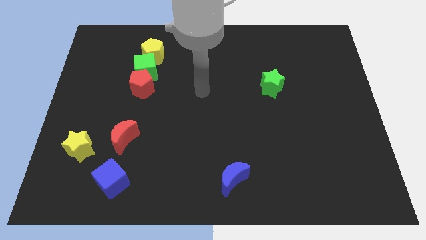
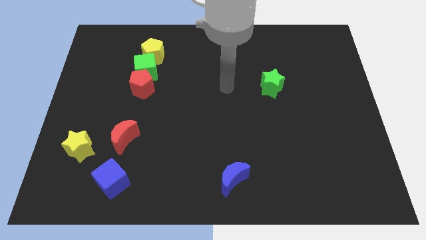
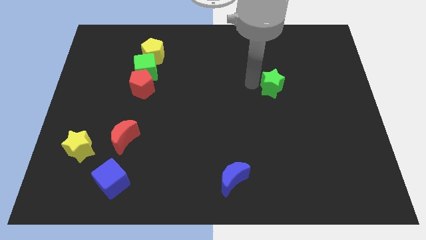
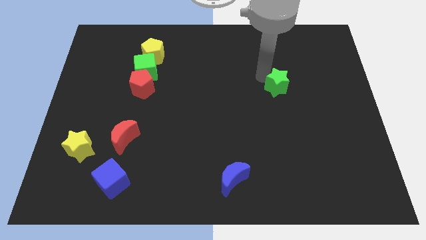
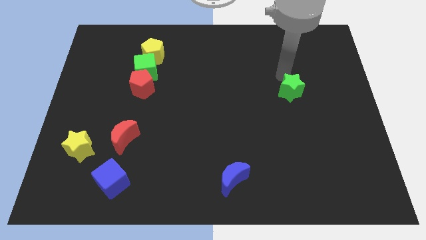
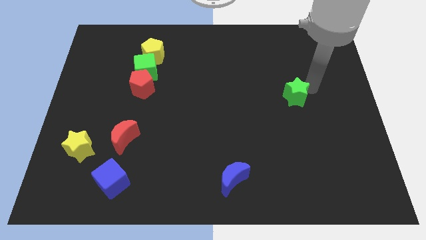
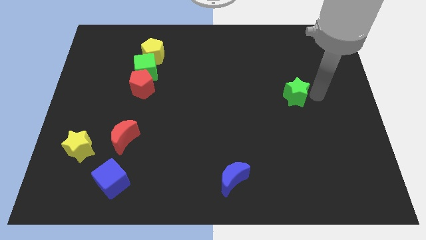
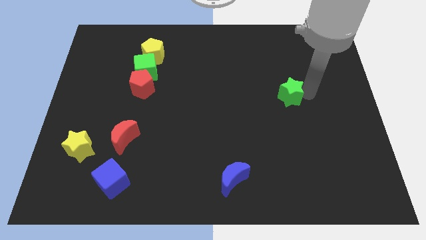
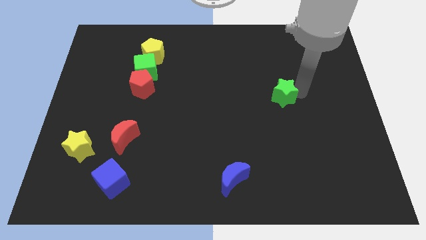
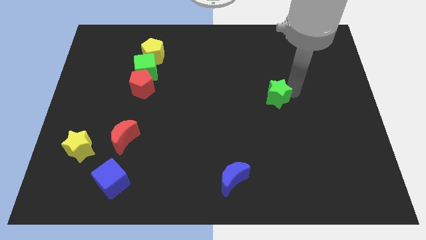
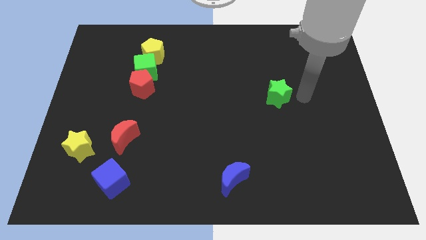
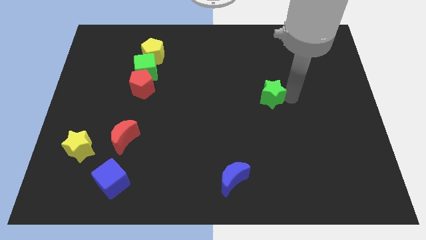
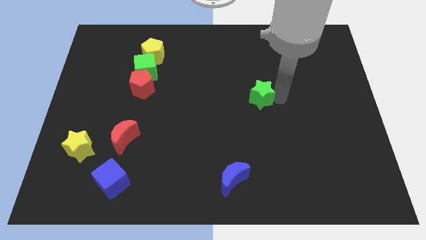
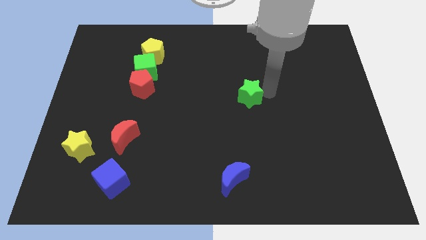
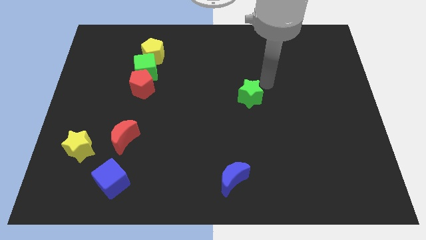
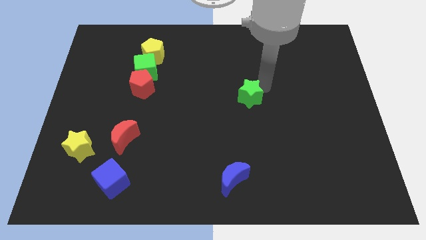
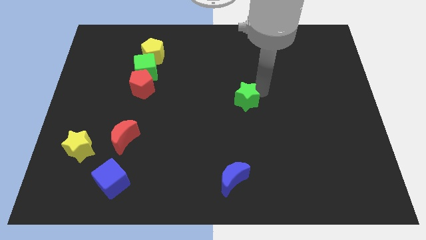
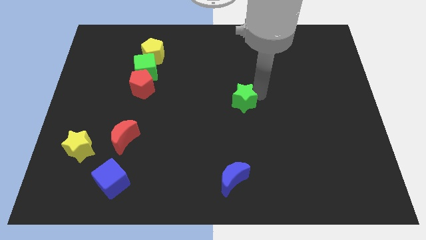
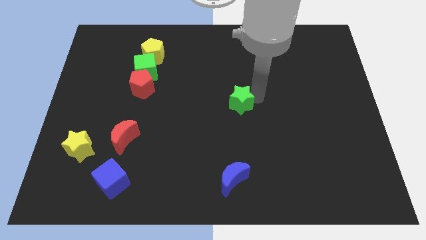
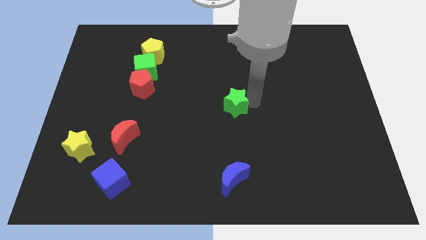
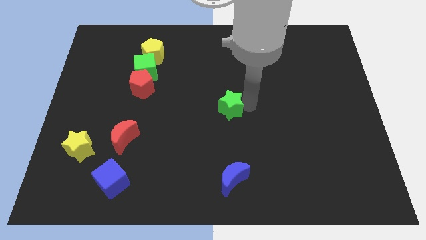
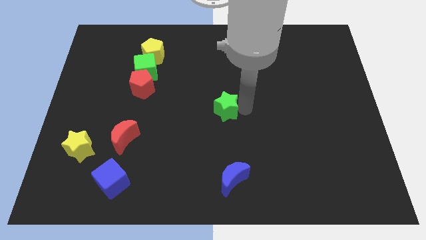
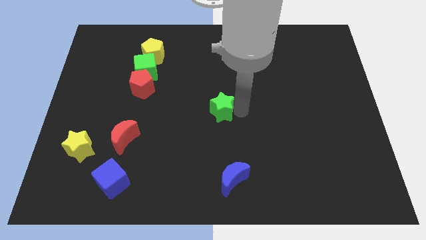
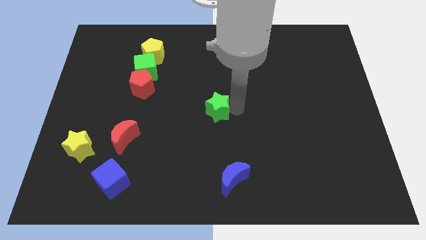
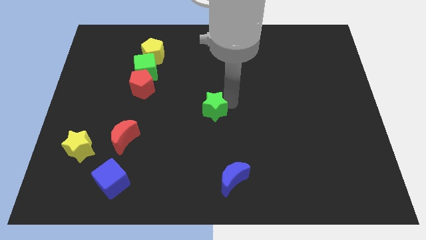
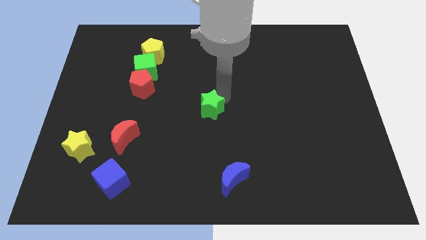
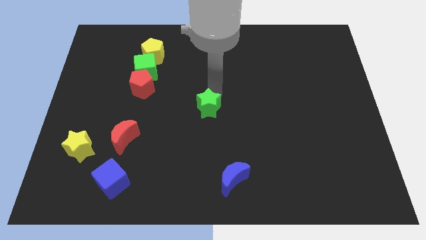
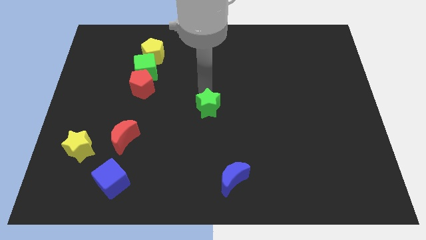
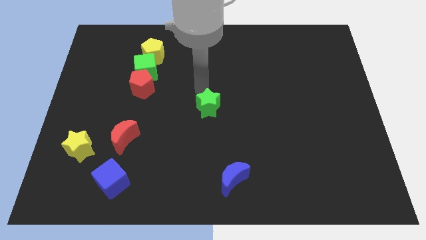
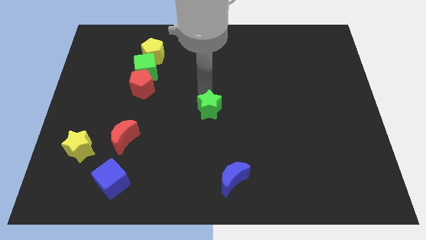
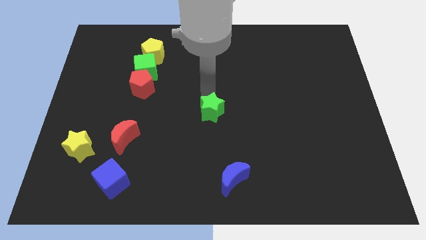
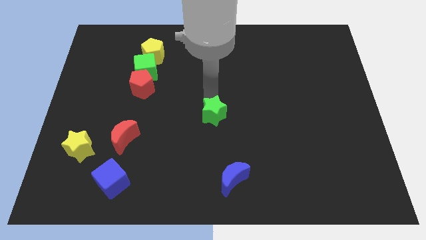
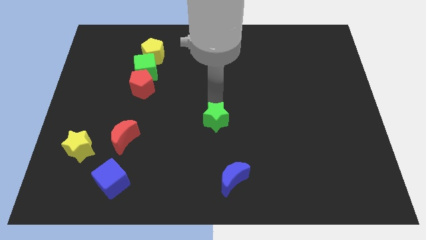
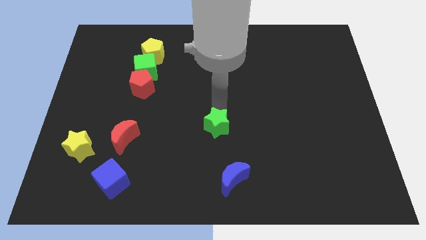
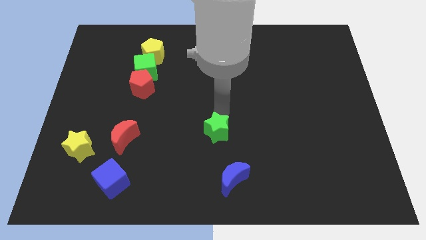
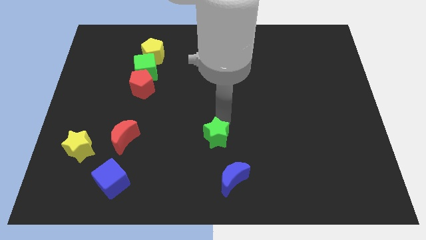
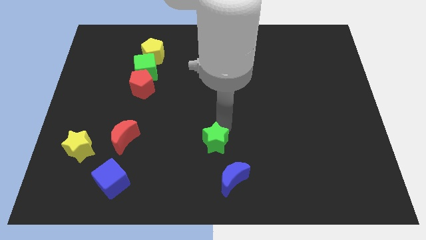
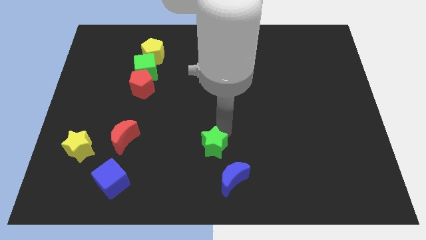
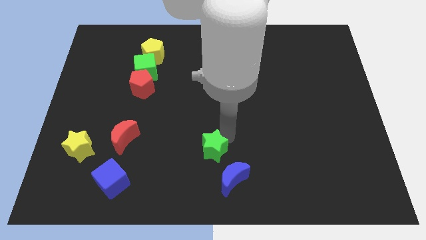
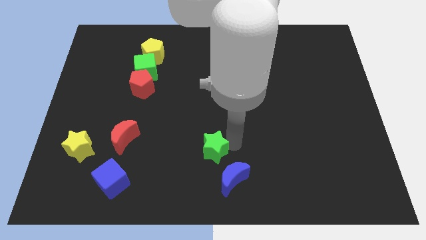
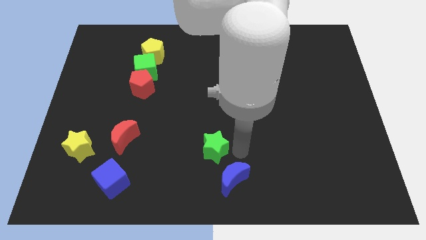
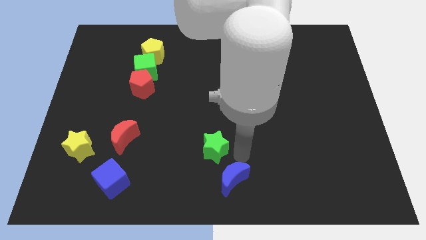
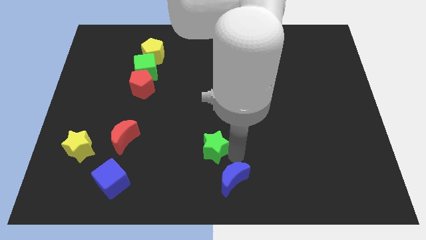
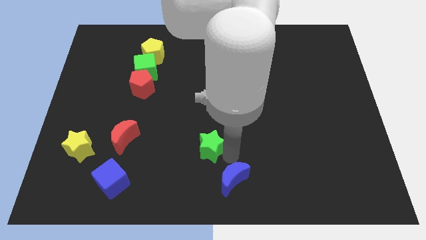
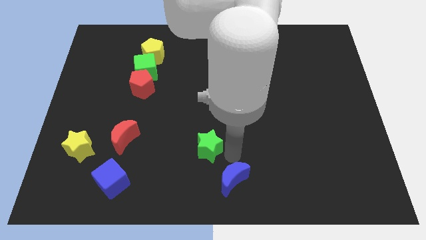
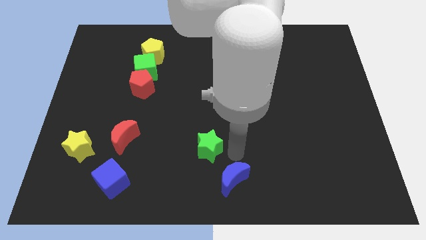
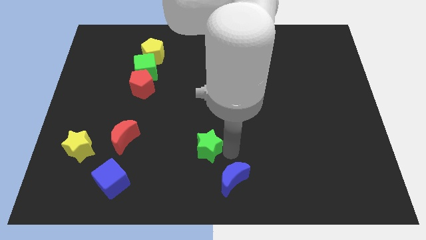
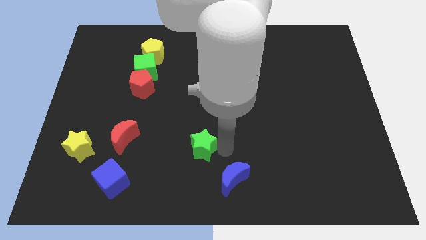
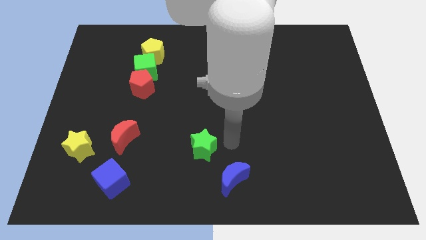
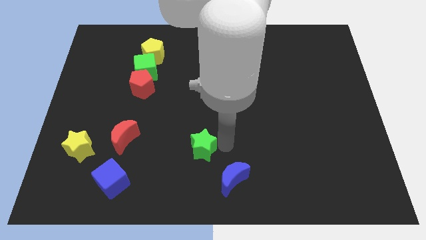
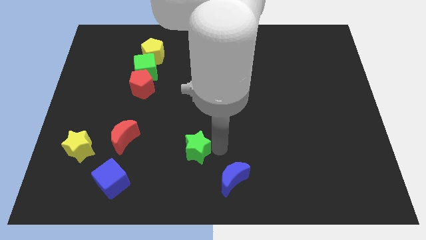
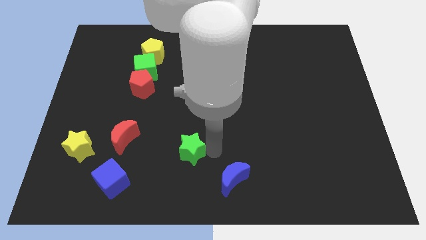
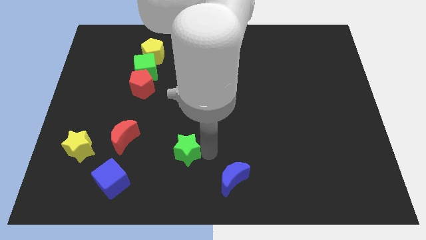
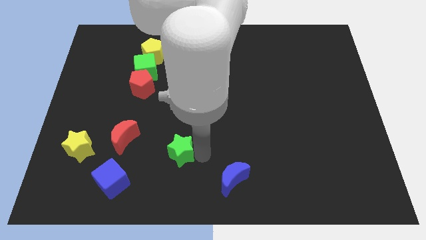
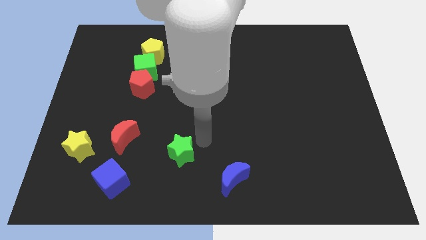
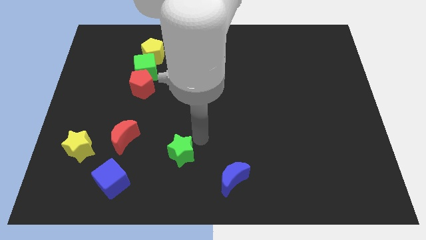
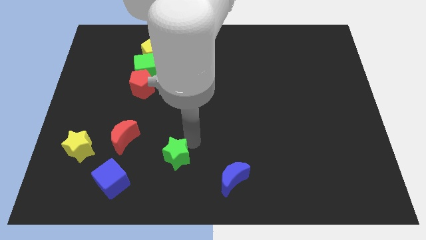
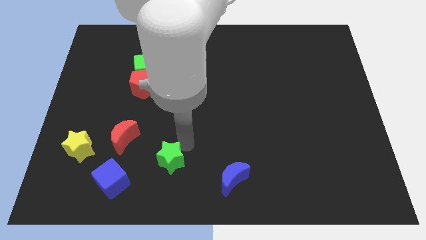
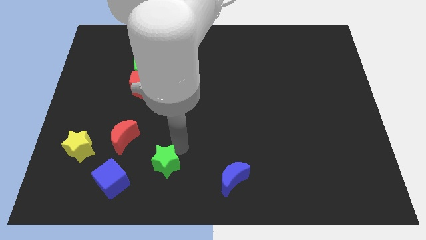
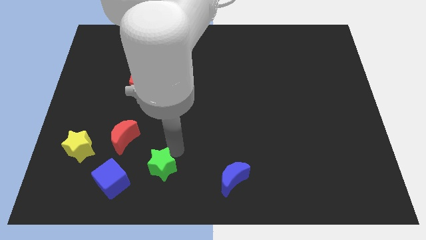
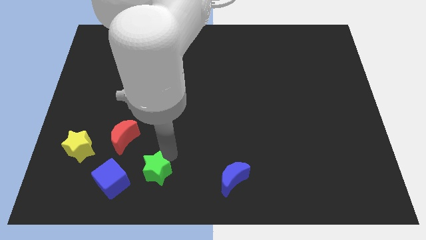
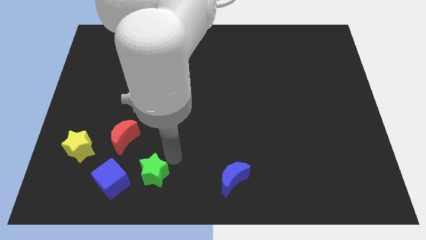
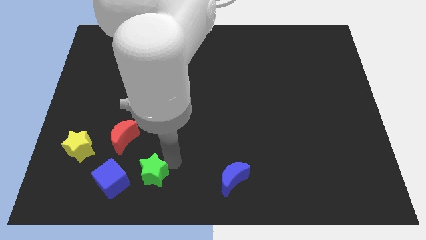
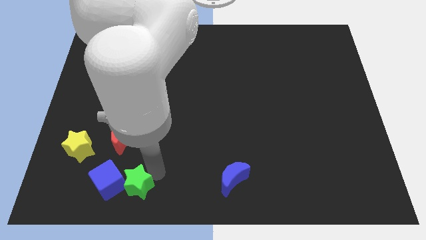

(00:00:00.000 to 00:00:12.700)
put the green star below the red moon

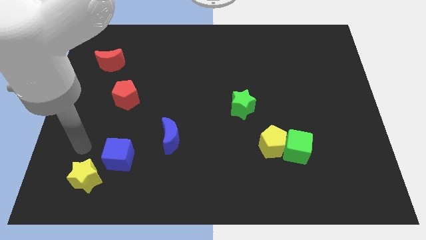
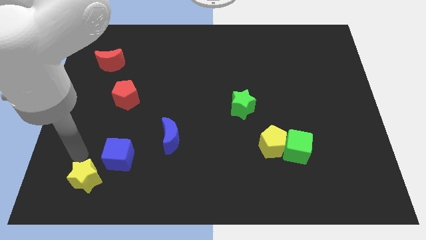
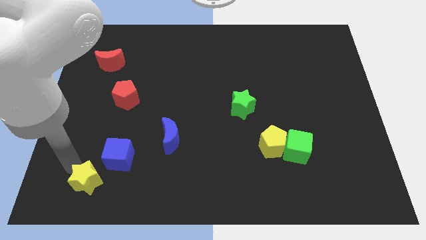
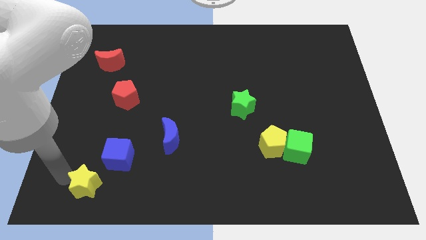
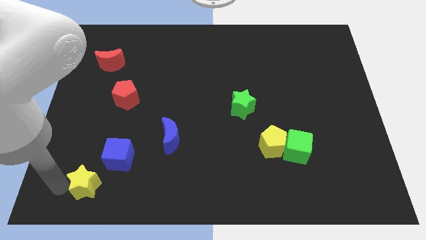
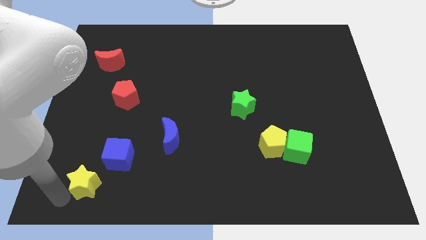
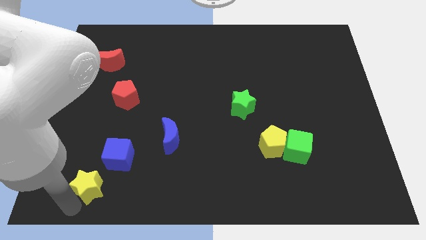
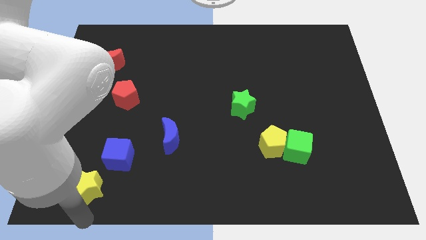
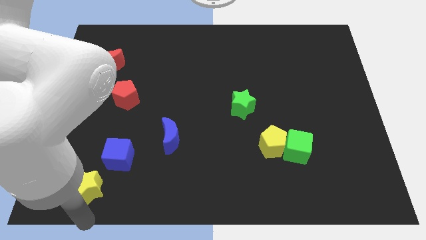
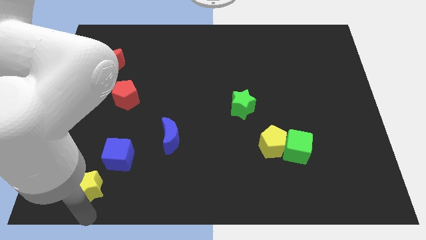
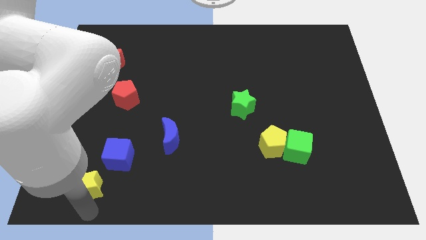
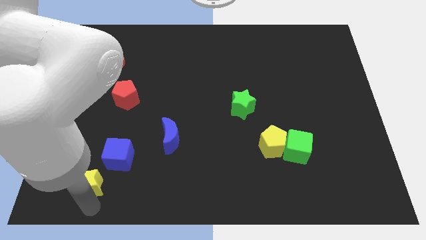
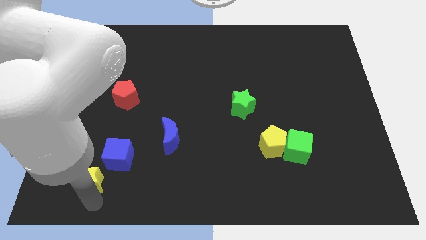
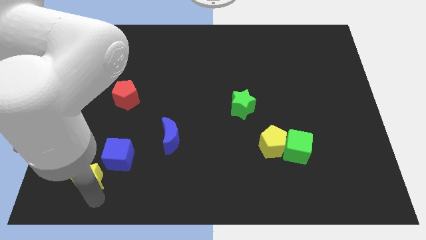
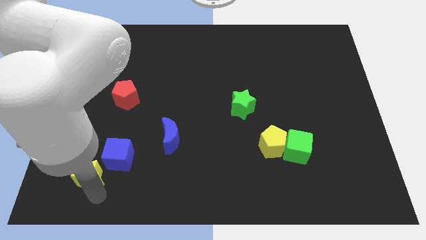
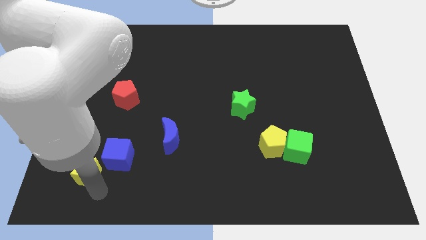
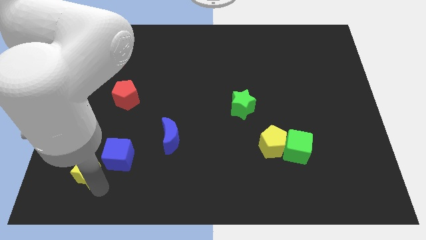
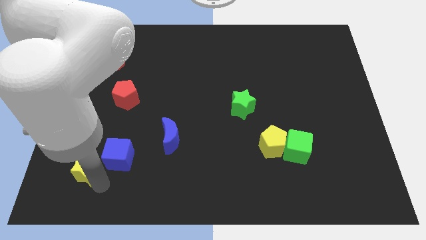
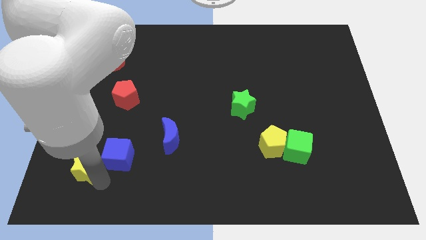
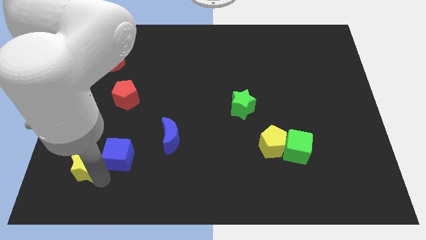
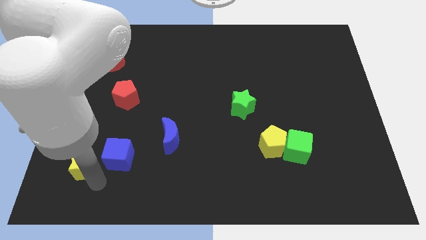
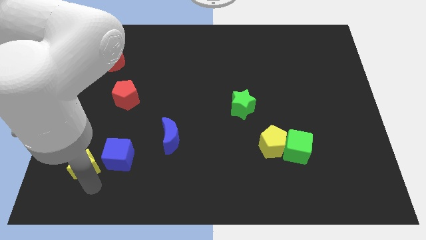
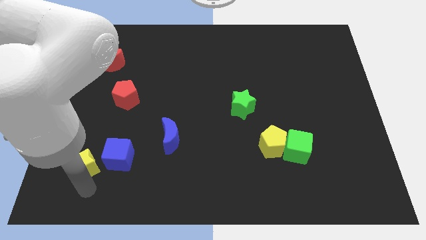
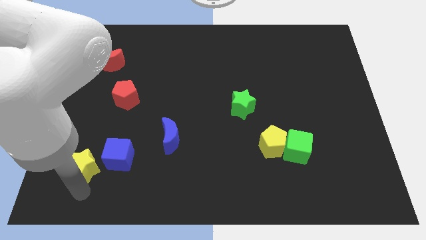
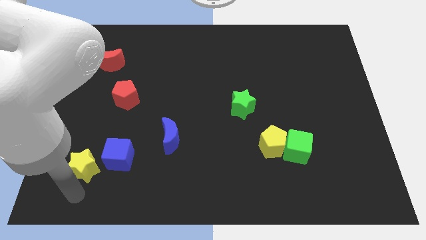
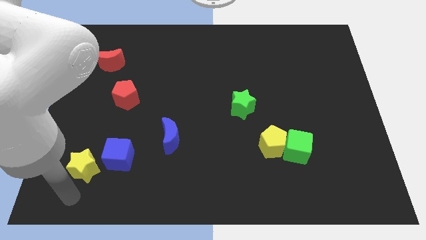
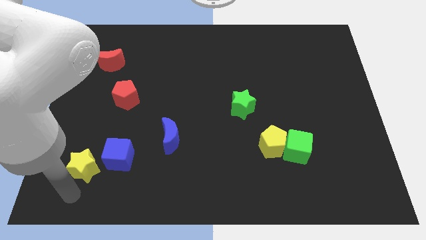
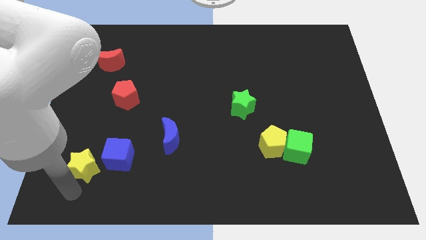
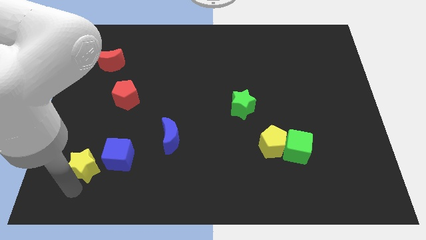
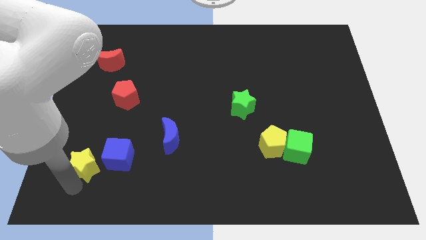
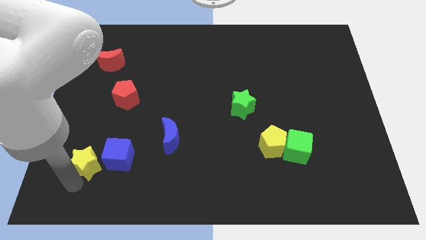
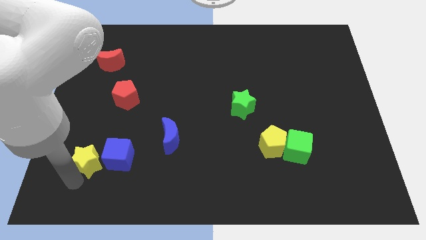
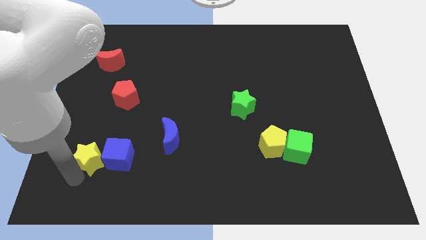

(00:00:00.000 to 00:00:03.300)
put the yellow star to the top left of the blue cube
